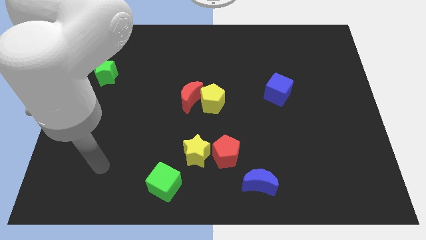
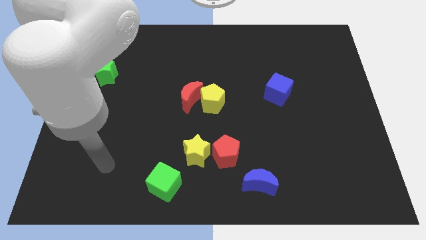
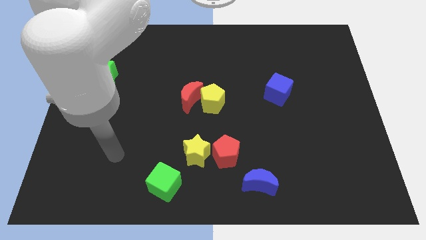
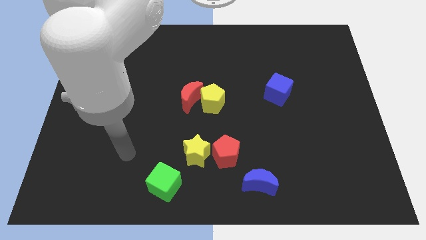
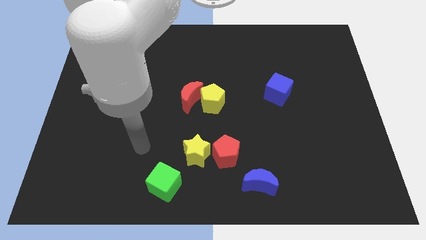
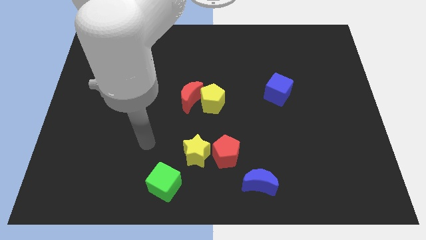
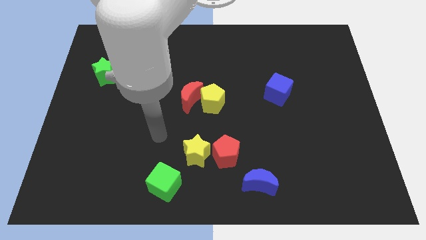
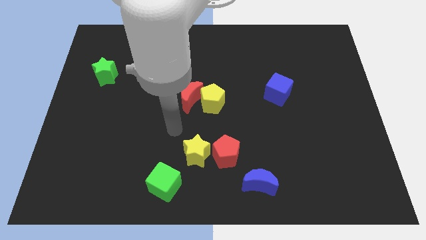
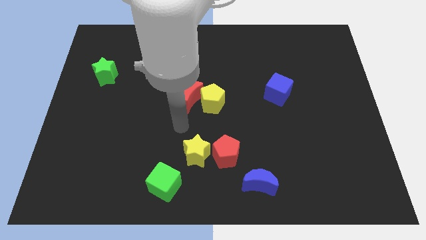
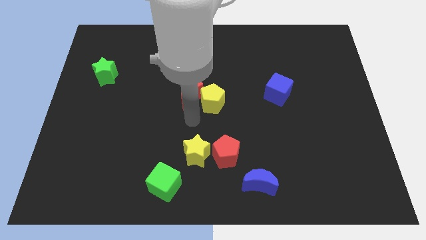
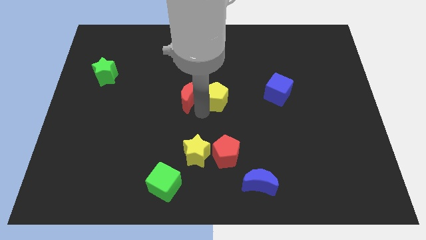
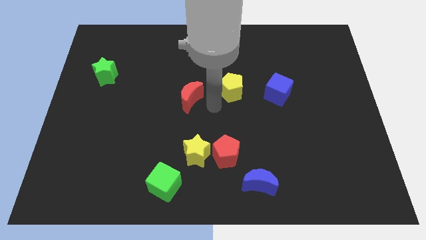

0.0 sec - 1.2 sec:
move the red moon away from the yellow pentagon

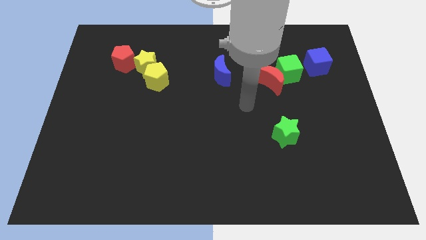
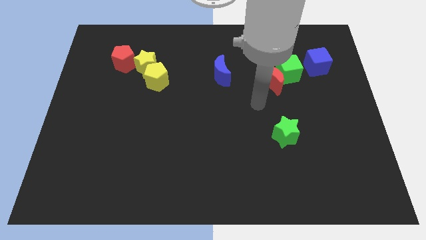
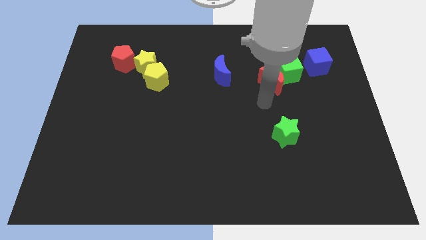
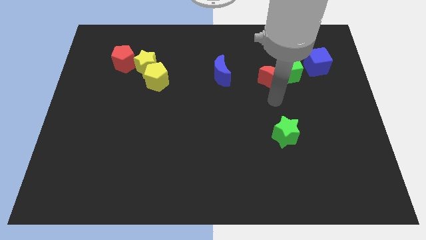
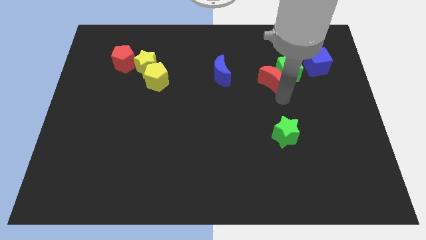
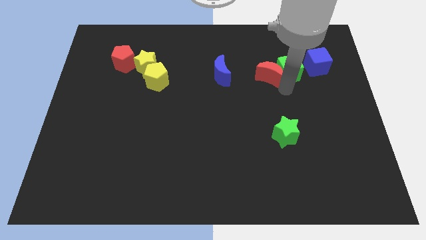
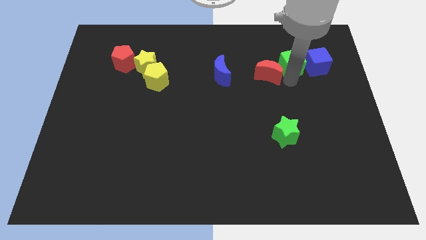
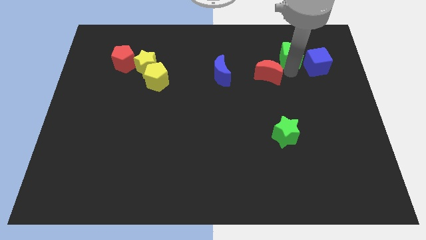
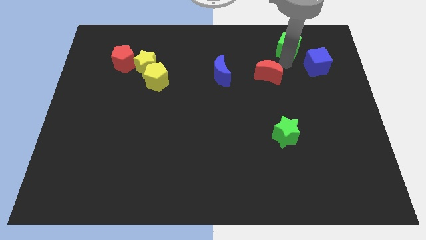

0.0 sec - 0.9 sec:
pull the red moon apart from the green cube

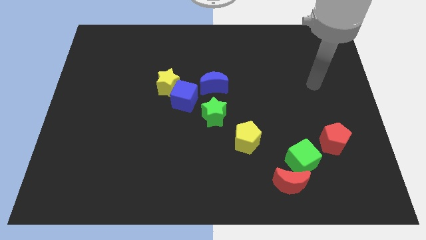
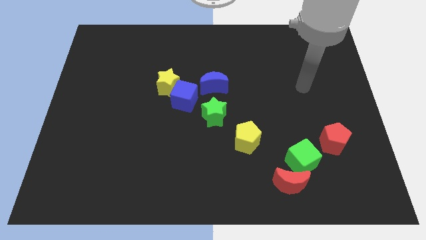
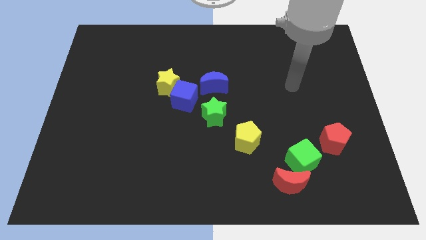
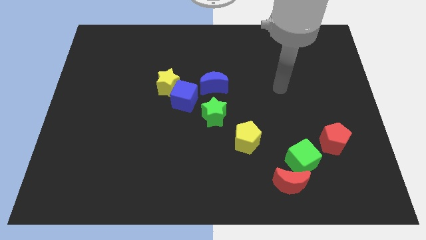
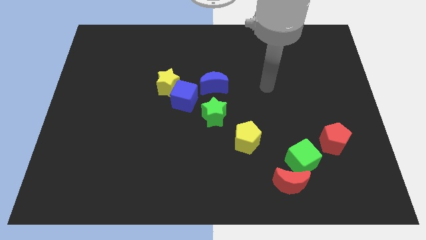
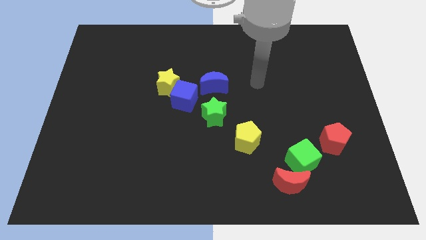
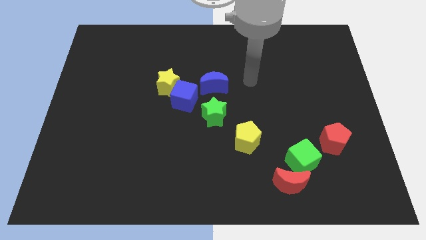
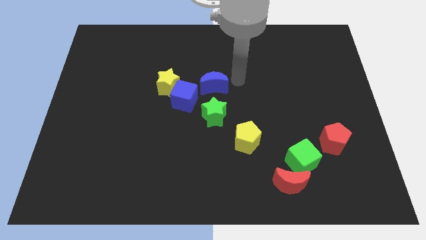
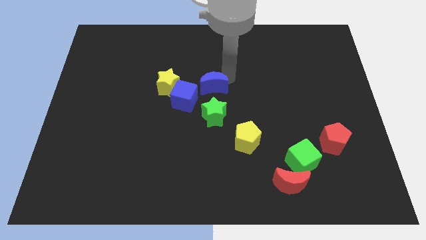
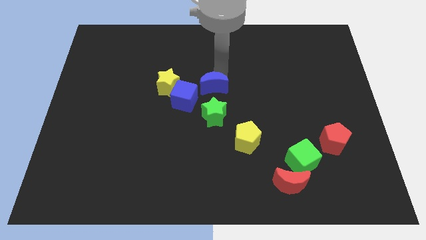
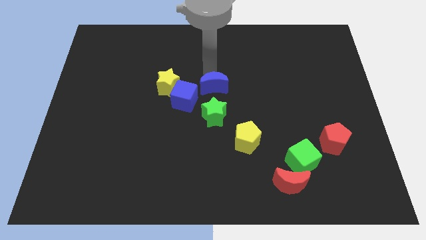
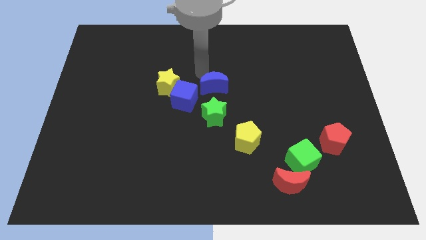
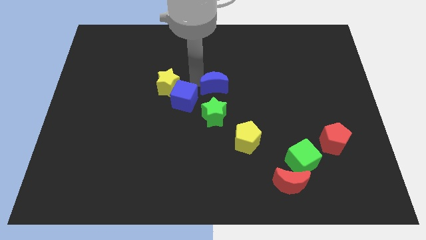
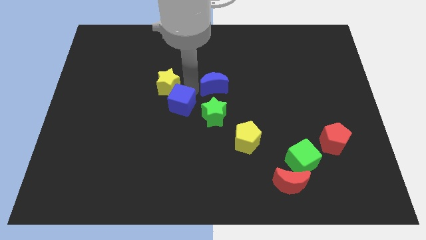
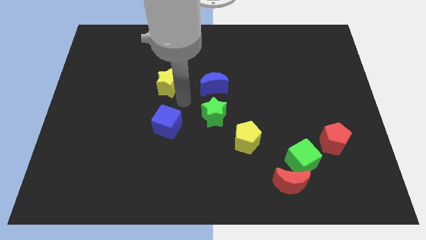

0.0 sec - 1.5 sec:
move the yellow star away from the blue cube

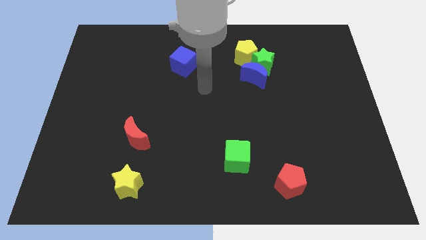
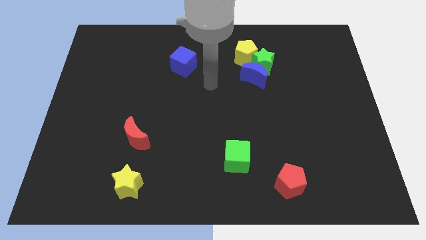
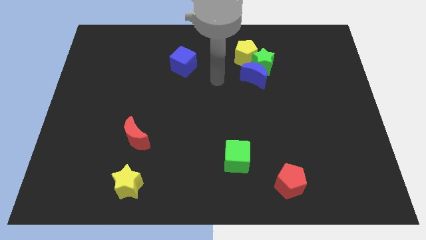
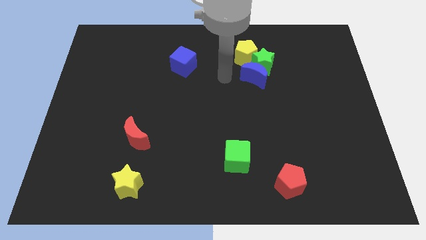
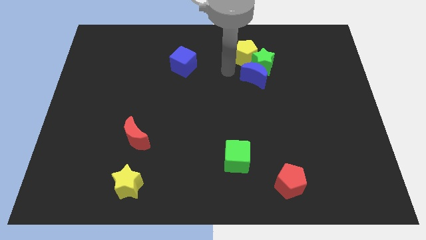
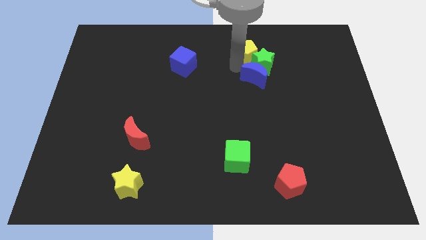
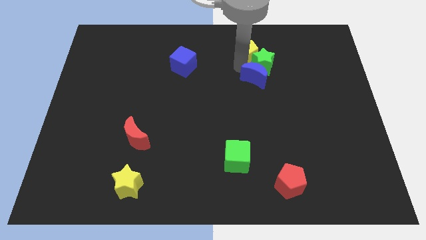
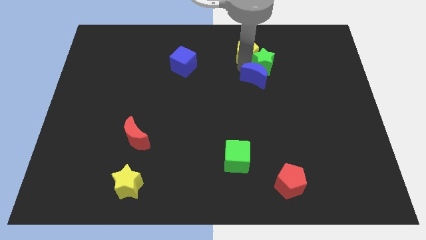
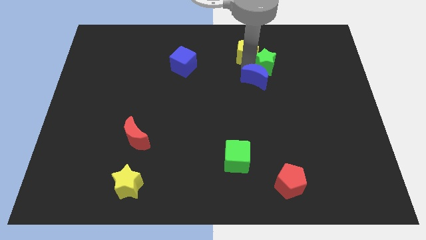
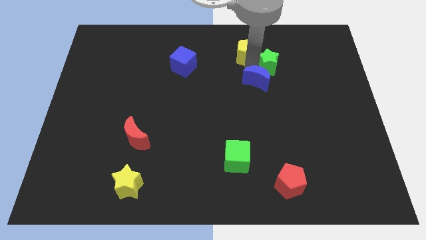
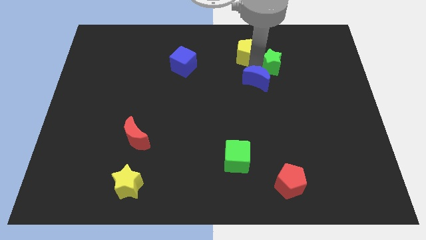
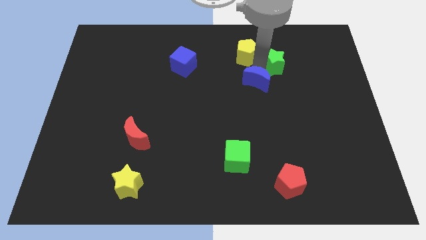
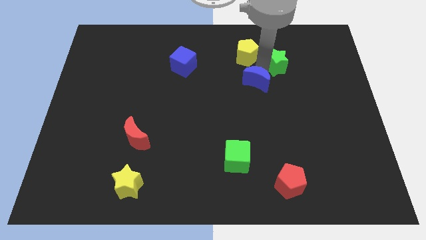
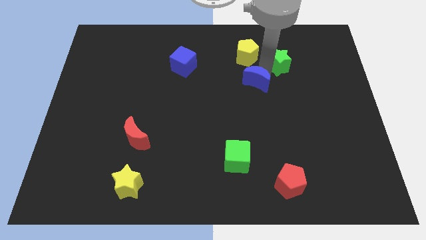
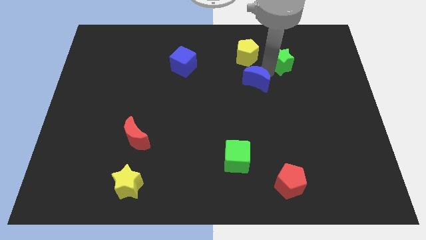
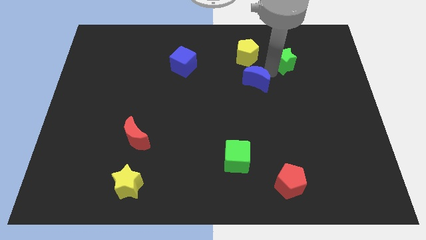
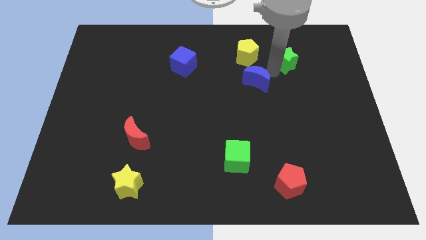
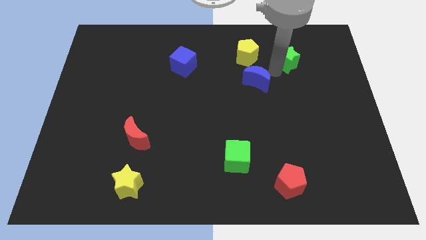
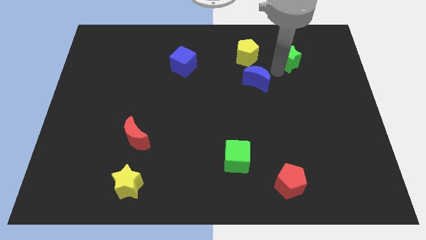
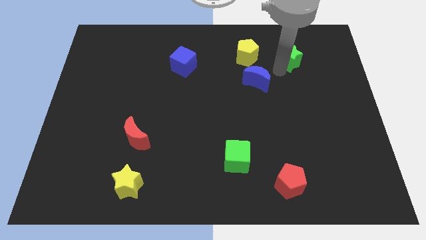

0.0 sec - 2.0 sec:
pull the green star apart from the blue moon and yellow pentagon

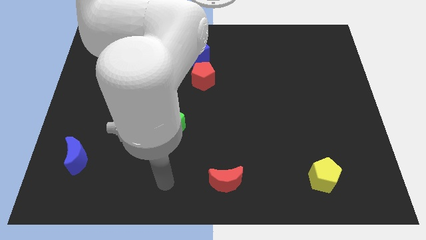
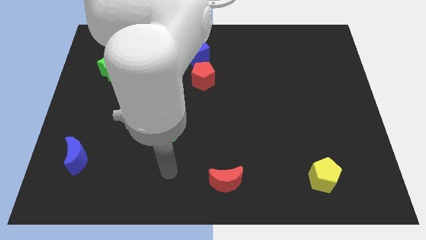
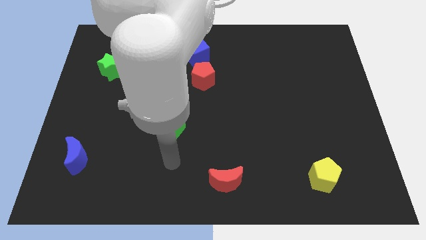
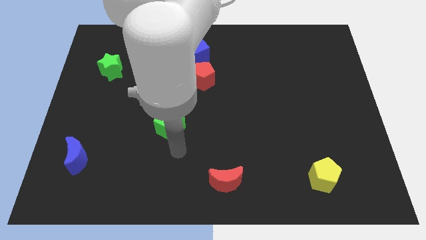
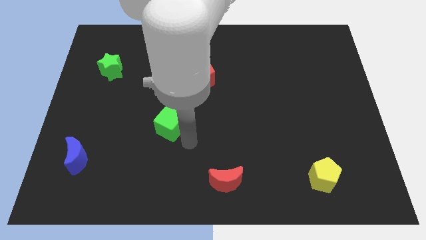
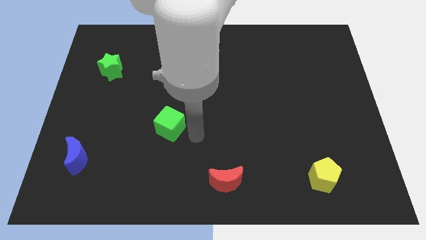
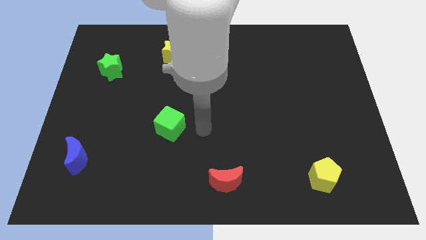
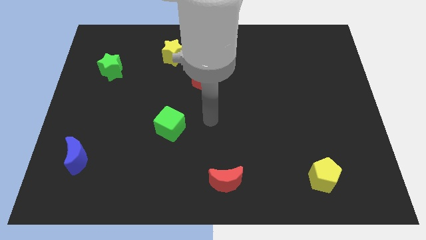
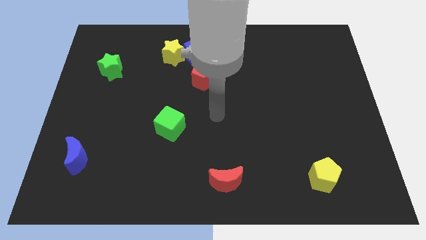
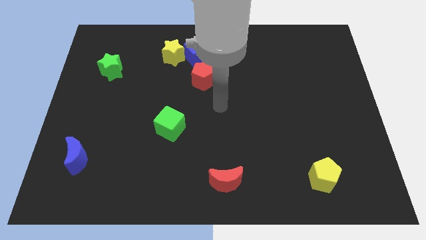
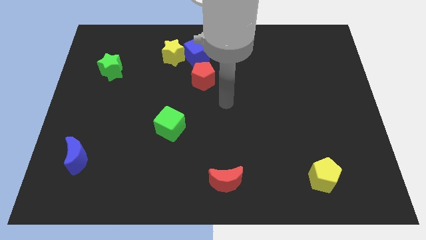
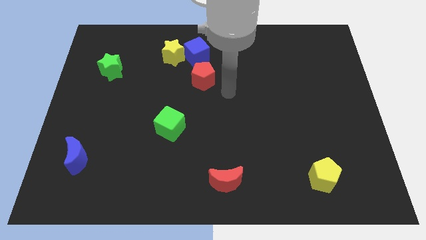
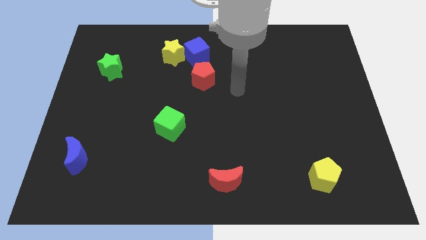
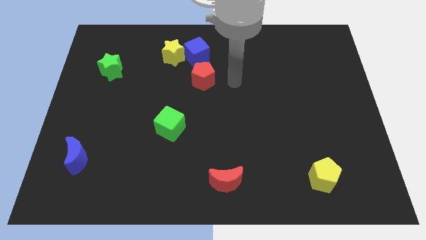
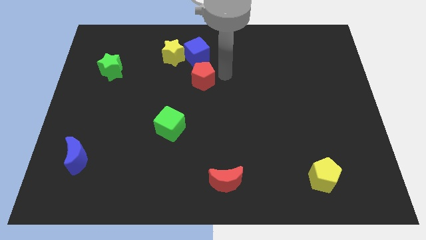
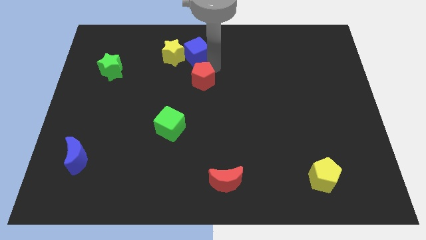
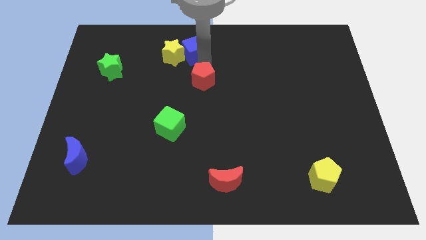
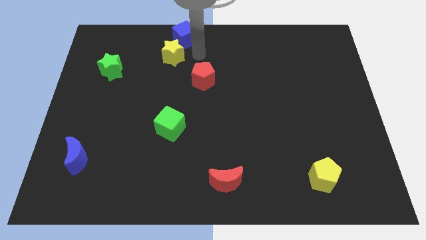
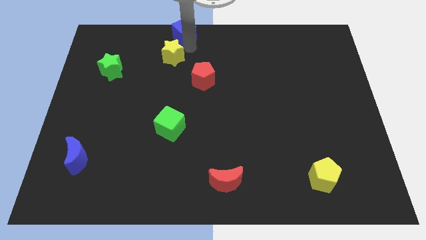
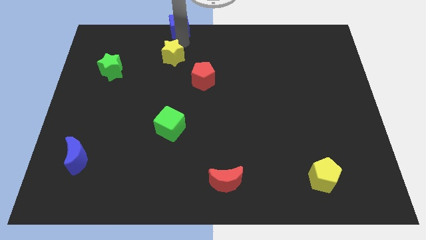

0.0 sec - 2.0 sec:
separate the yellow star from the blue cube

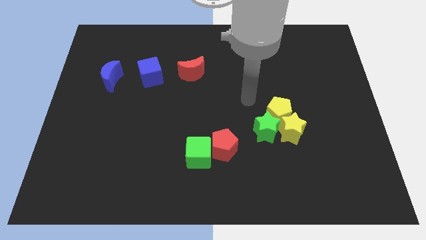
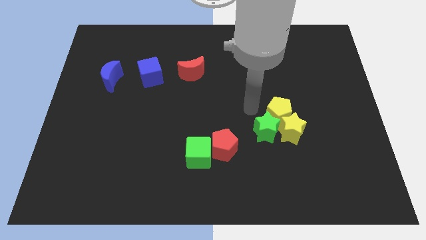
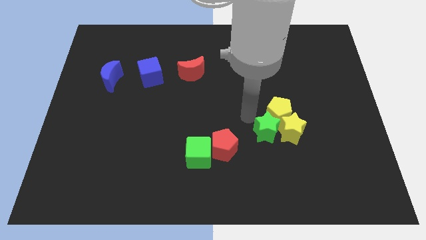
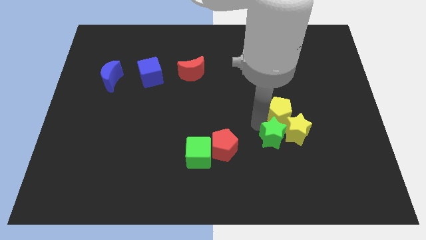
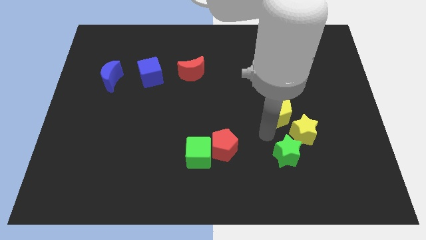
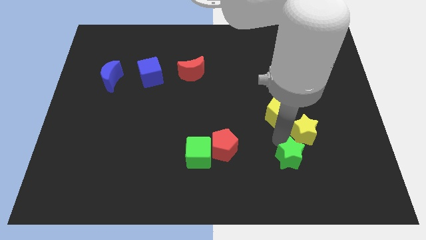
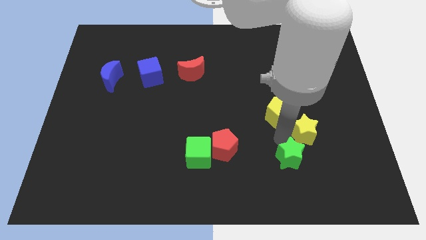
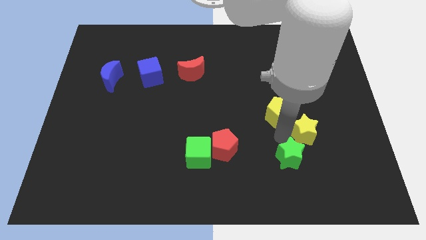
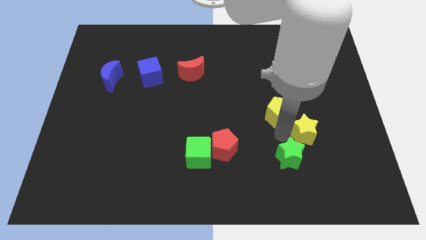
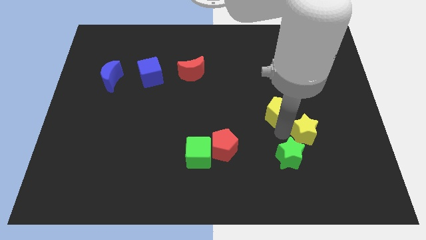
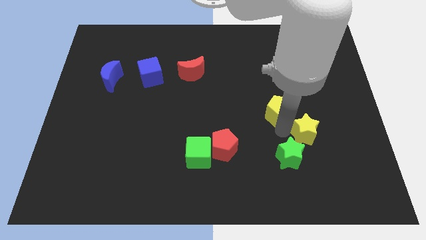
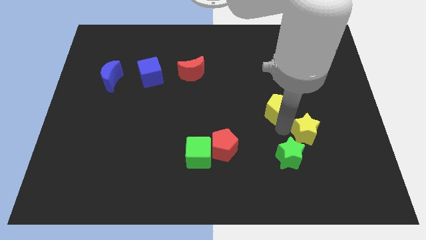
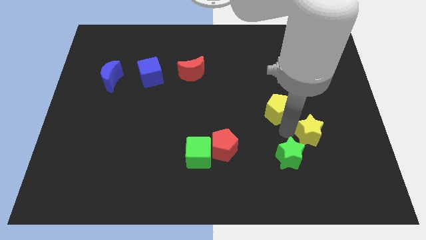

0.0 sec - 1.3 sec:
pull the yellow pentagon apart from the yellow star and green star

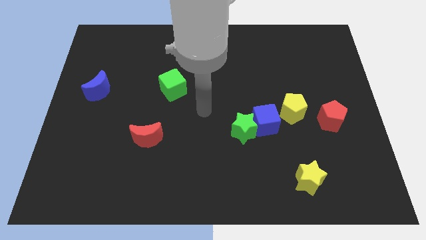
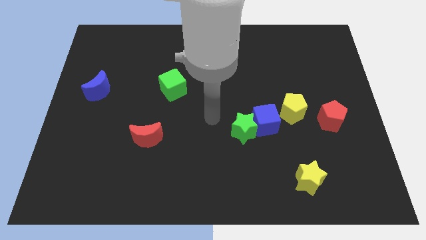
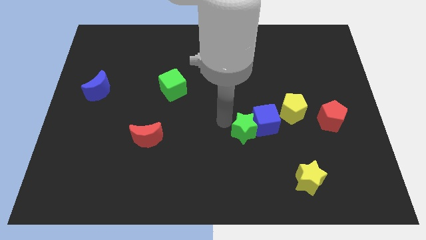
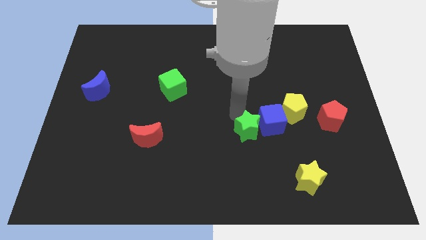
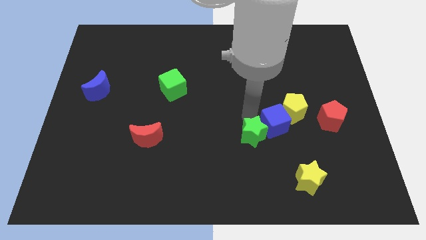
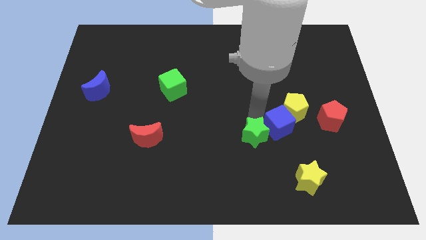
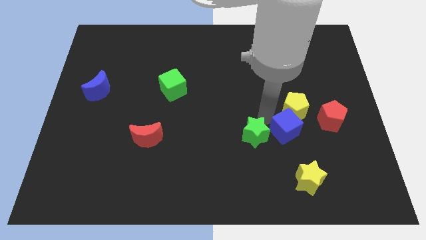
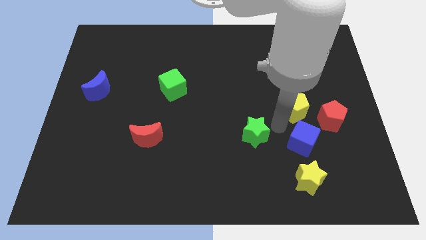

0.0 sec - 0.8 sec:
pull the green star apart from the blue cube
